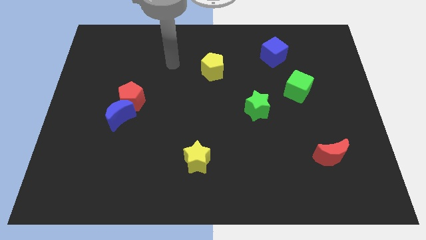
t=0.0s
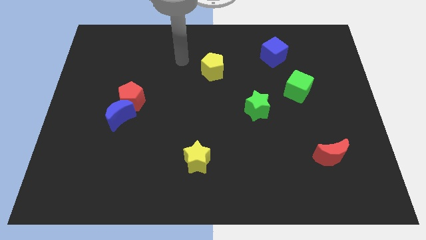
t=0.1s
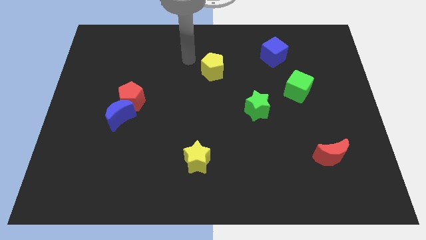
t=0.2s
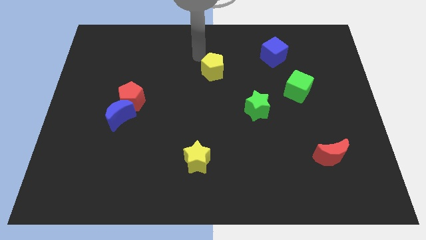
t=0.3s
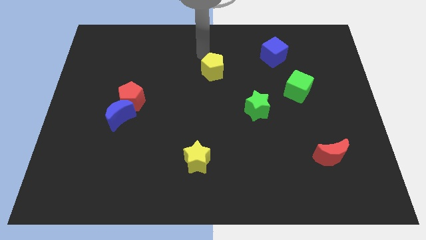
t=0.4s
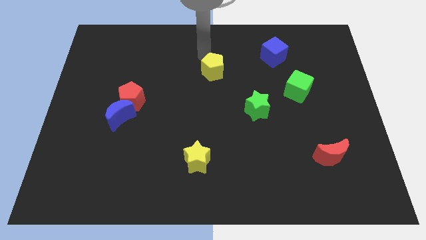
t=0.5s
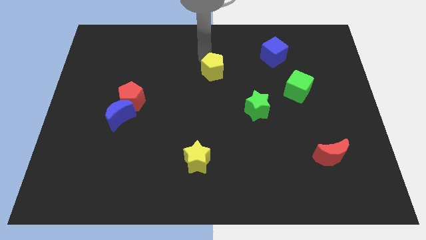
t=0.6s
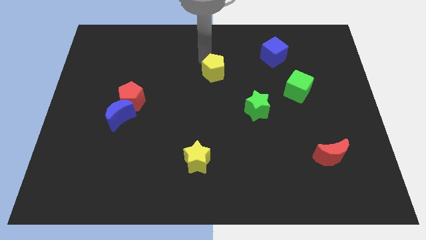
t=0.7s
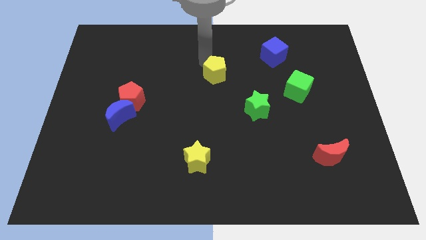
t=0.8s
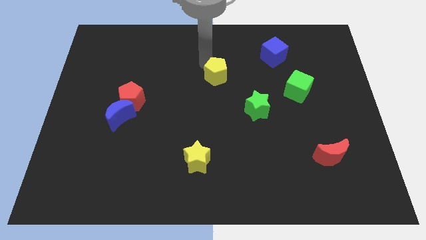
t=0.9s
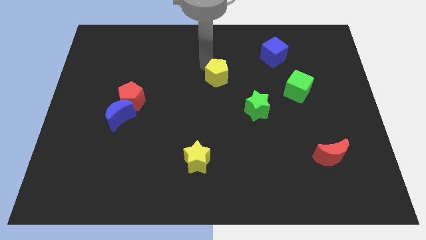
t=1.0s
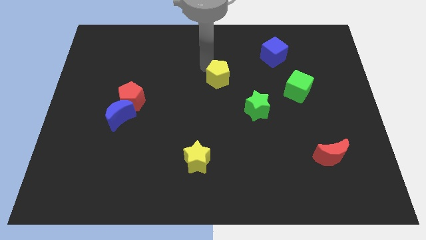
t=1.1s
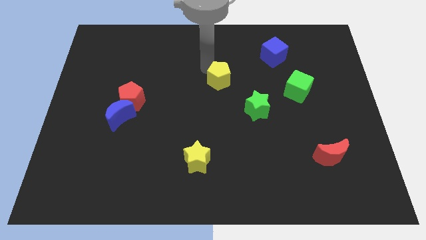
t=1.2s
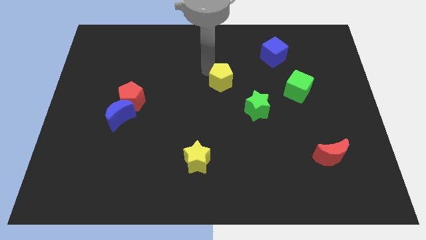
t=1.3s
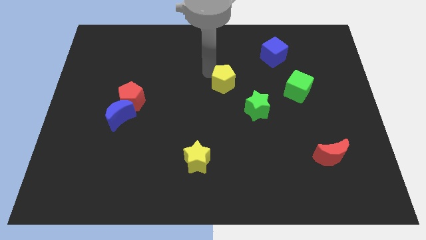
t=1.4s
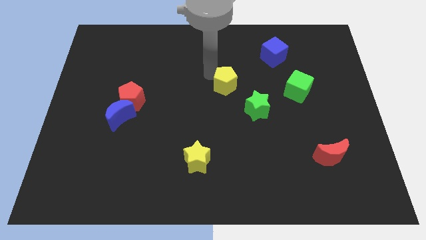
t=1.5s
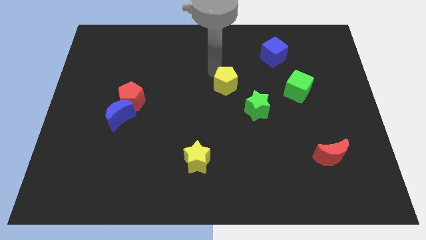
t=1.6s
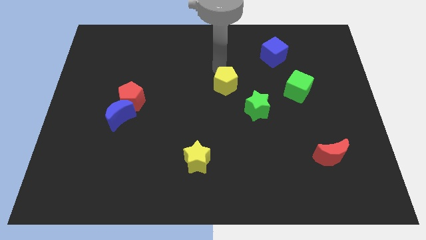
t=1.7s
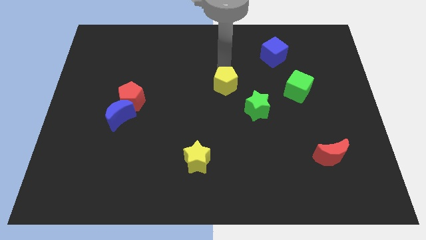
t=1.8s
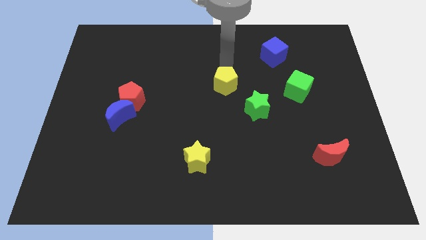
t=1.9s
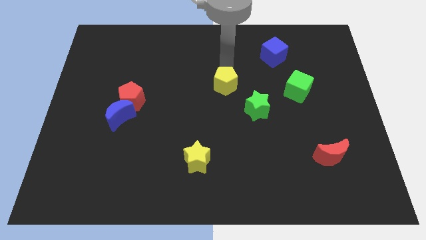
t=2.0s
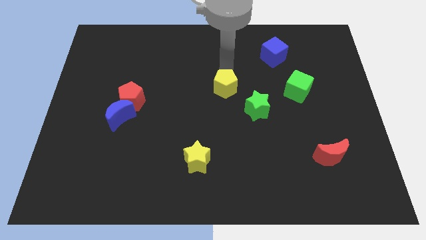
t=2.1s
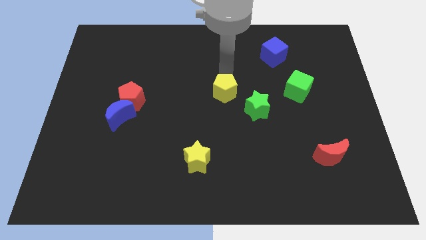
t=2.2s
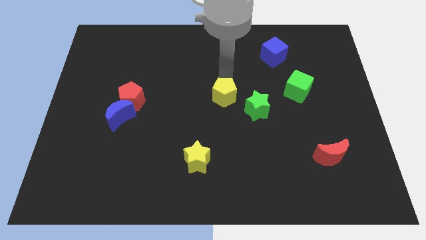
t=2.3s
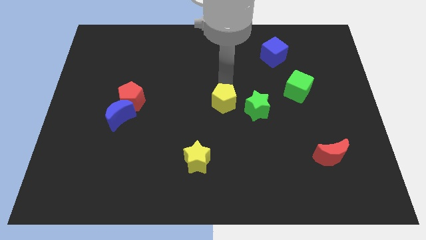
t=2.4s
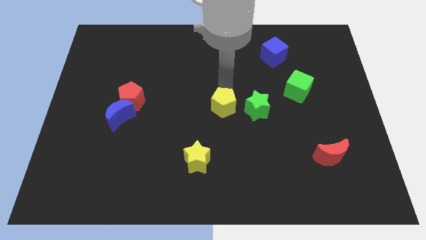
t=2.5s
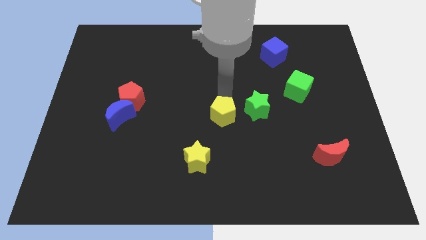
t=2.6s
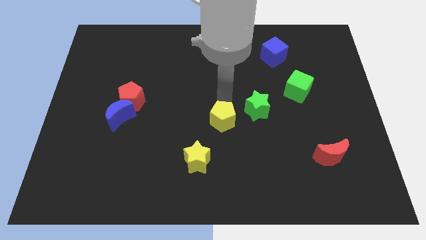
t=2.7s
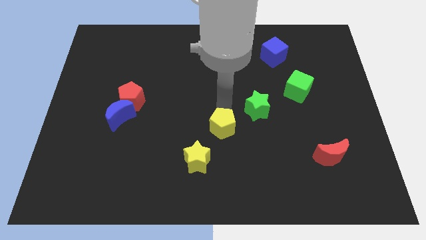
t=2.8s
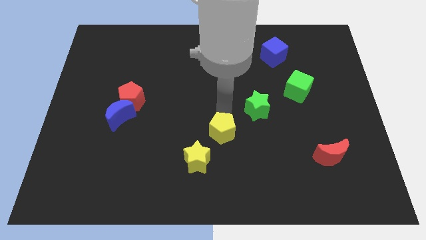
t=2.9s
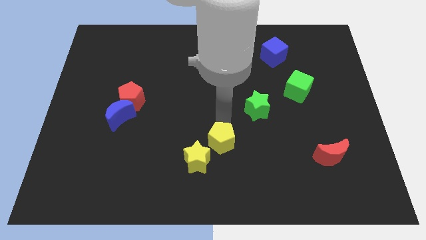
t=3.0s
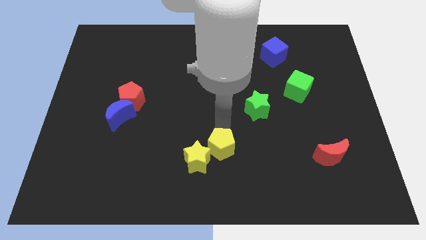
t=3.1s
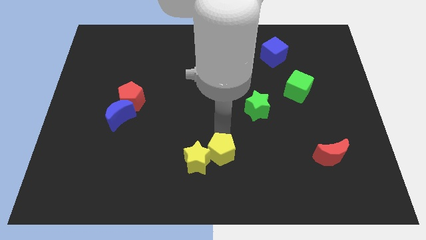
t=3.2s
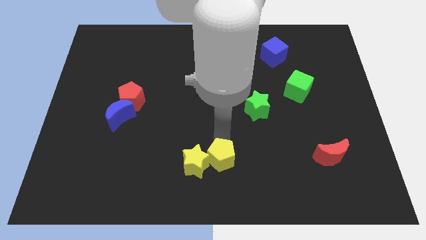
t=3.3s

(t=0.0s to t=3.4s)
put the yellow pentagon to the bottom

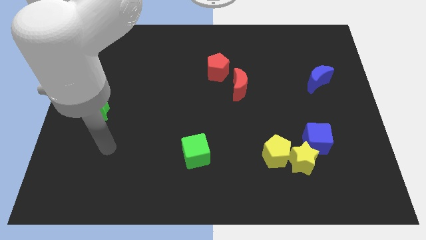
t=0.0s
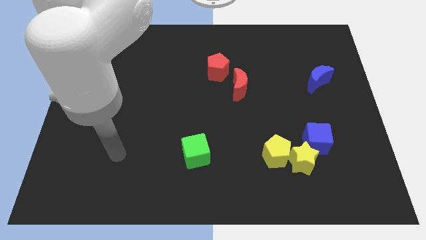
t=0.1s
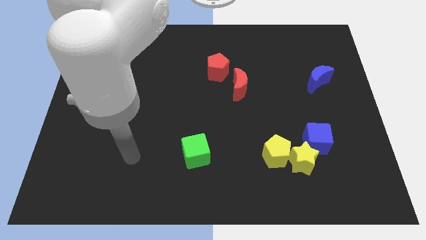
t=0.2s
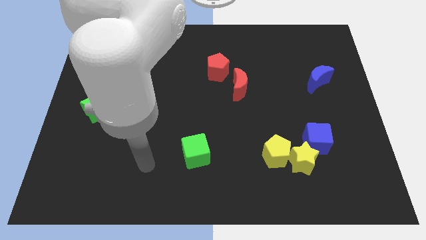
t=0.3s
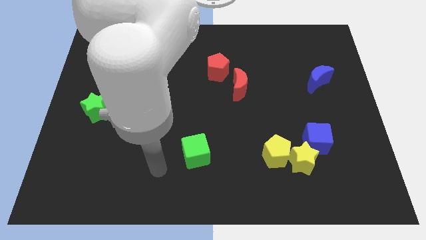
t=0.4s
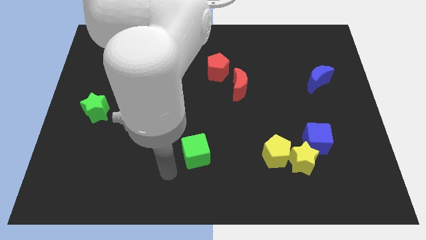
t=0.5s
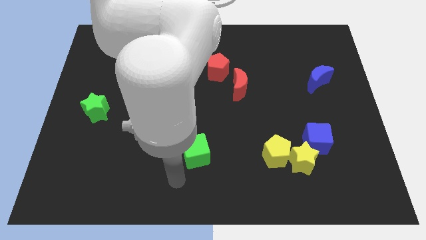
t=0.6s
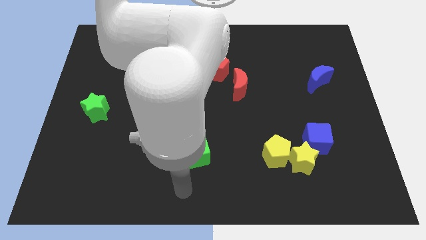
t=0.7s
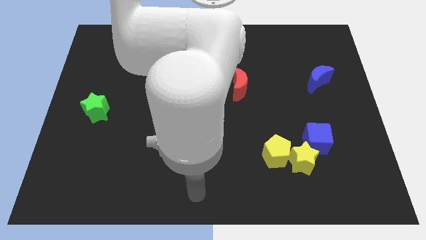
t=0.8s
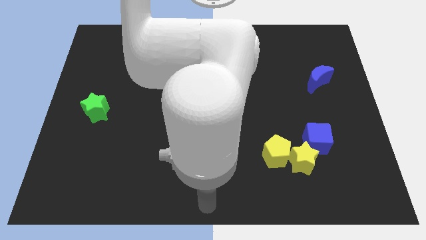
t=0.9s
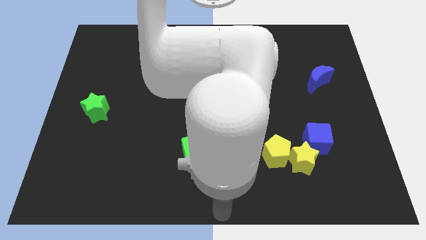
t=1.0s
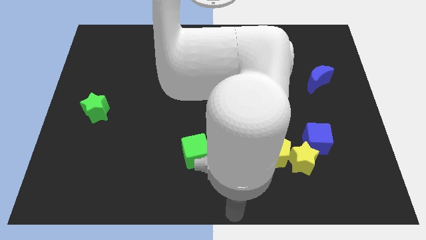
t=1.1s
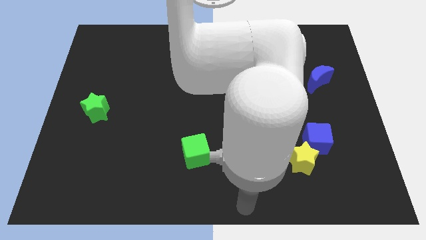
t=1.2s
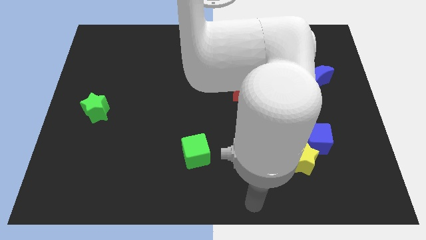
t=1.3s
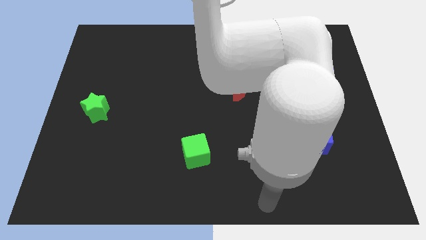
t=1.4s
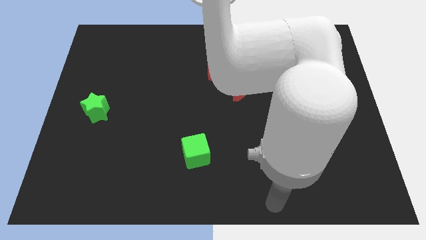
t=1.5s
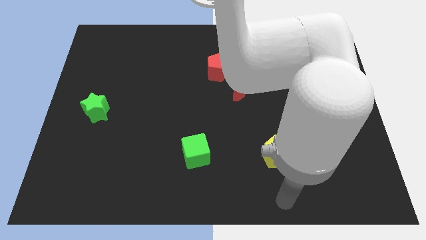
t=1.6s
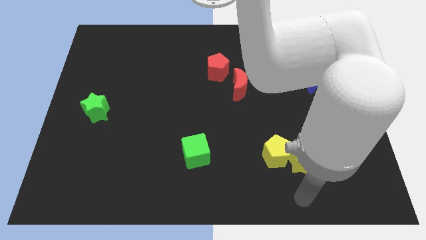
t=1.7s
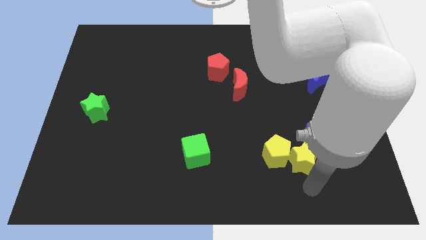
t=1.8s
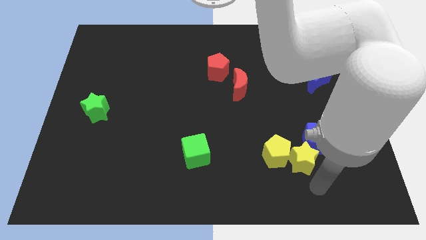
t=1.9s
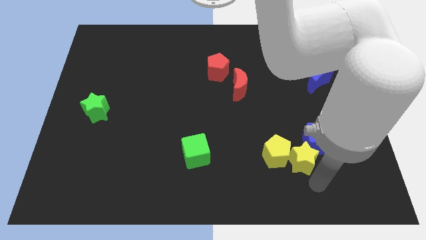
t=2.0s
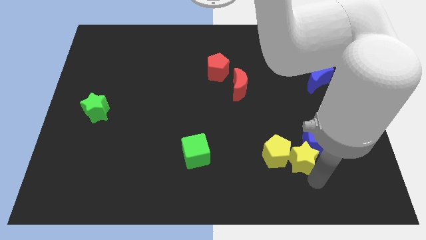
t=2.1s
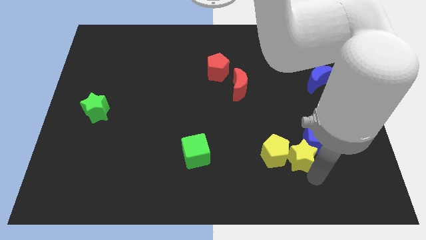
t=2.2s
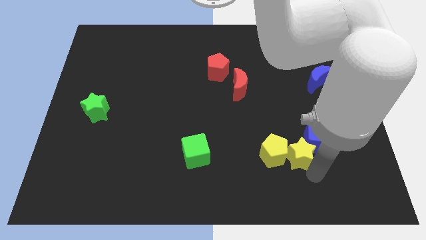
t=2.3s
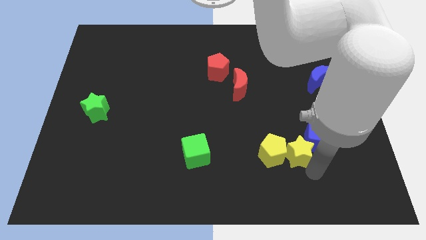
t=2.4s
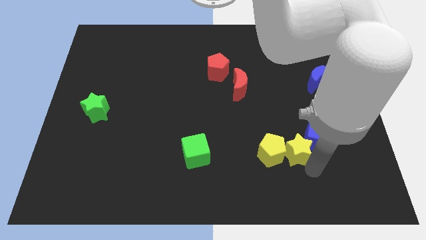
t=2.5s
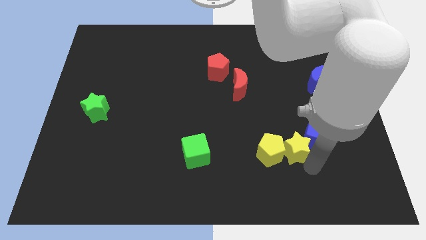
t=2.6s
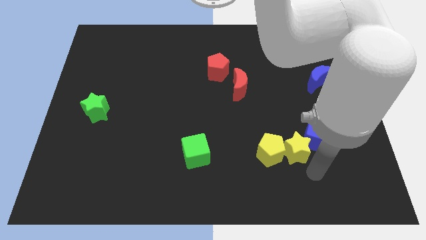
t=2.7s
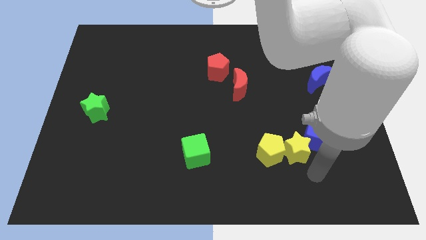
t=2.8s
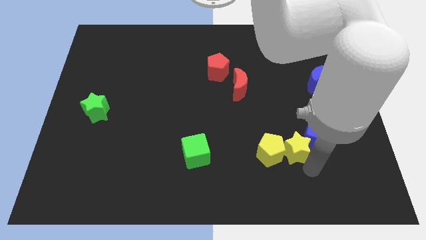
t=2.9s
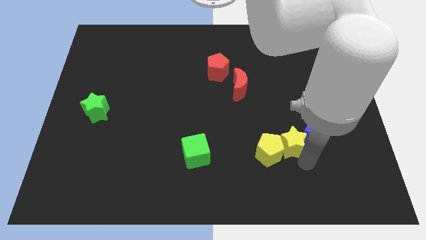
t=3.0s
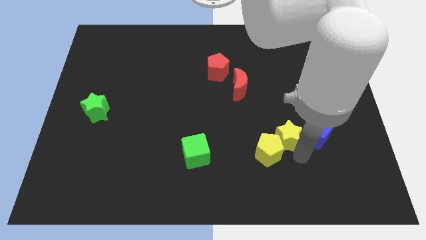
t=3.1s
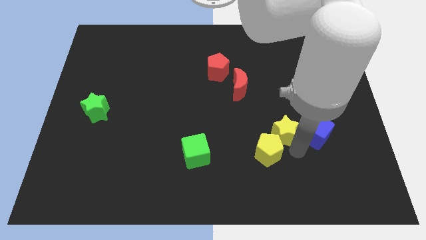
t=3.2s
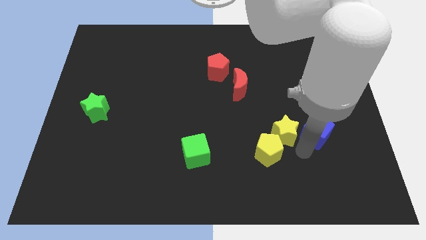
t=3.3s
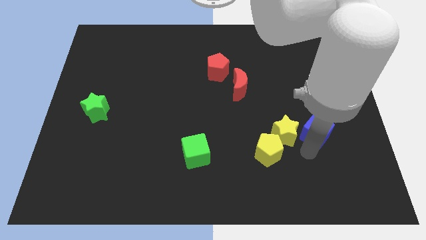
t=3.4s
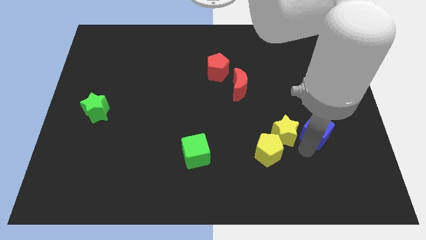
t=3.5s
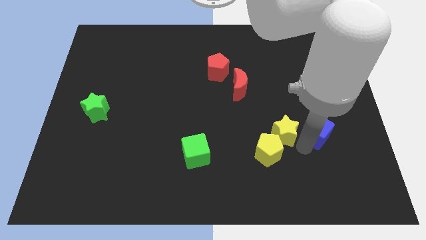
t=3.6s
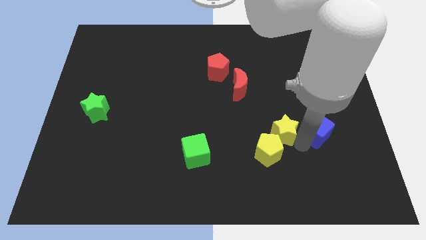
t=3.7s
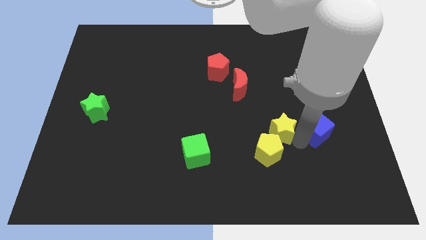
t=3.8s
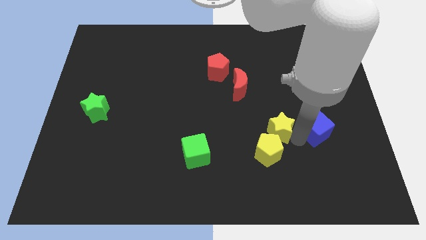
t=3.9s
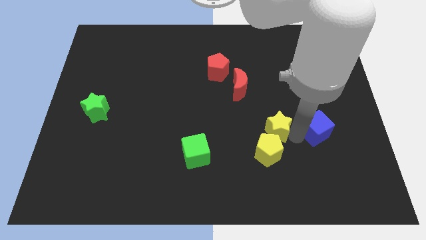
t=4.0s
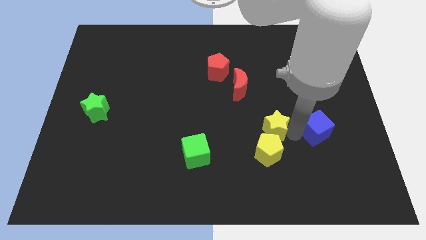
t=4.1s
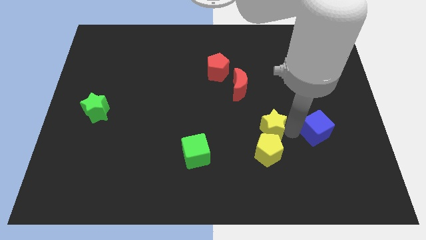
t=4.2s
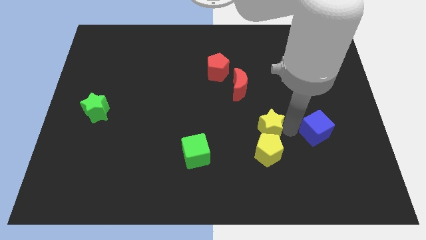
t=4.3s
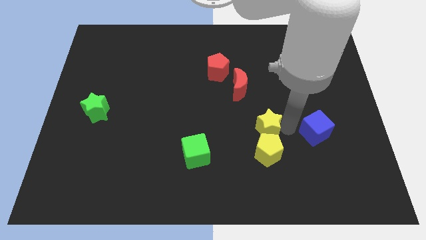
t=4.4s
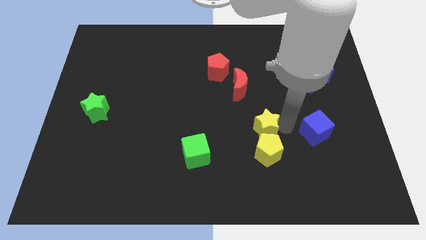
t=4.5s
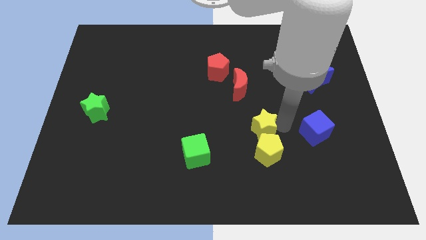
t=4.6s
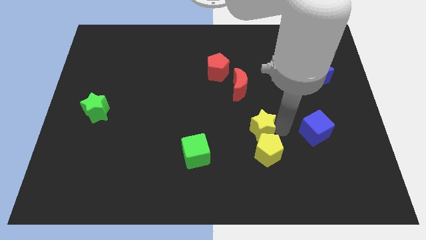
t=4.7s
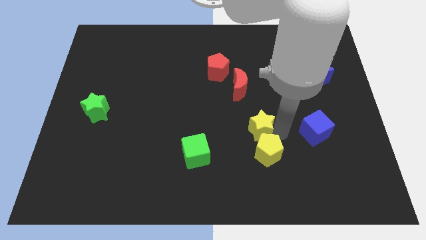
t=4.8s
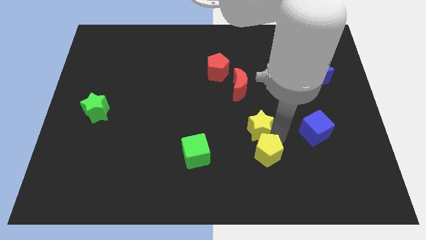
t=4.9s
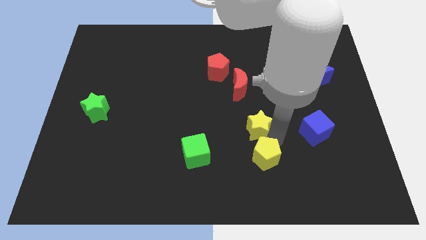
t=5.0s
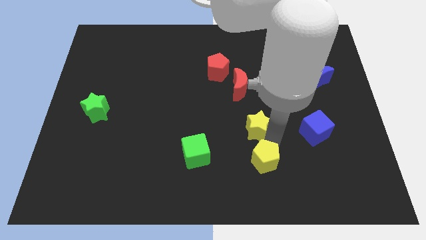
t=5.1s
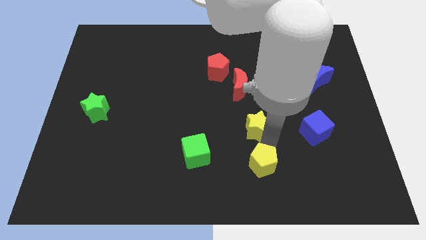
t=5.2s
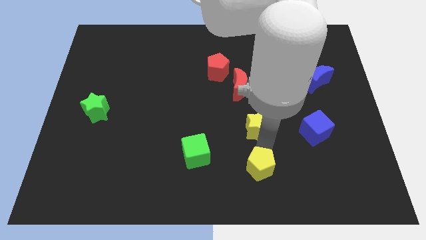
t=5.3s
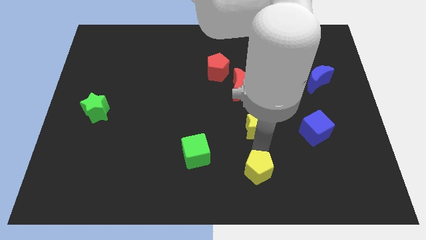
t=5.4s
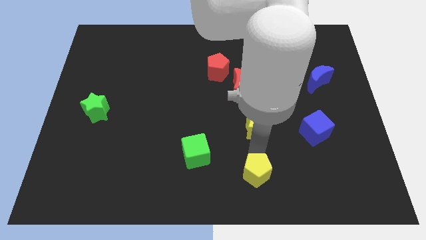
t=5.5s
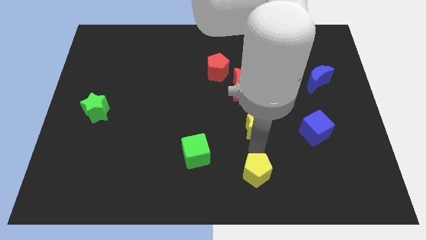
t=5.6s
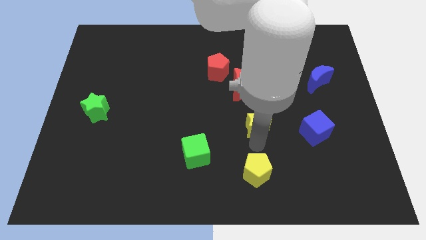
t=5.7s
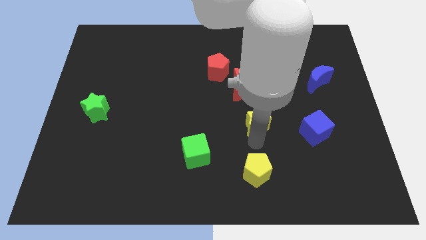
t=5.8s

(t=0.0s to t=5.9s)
put the yellow star to the middle of the board
